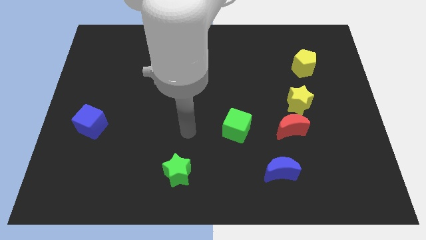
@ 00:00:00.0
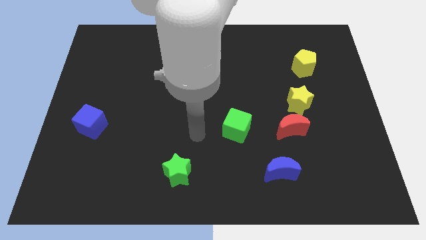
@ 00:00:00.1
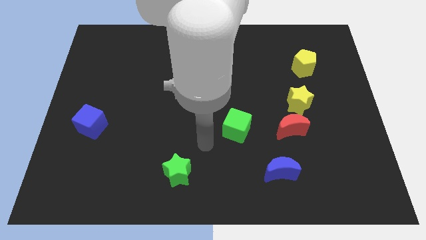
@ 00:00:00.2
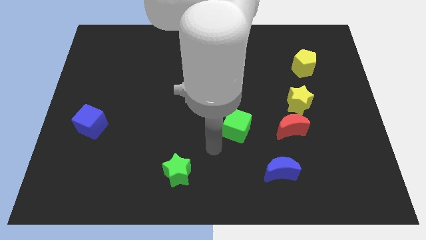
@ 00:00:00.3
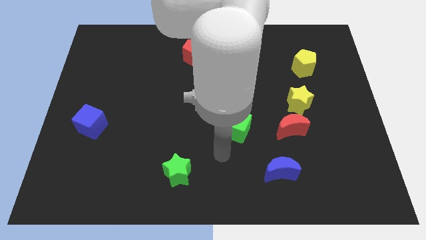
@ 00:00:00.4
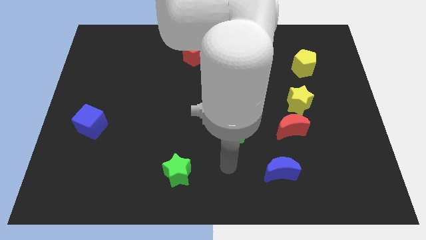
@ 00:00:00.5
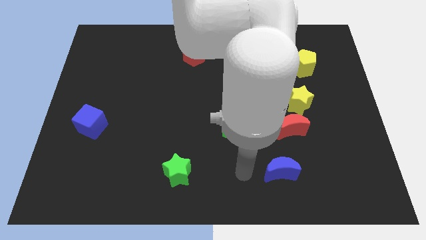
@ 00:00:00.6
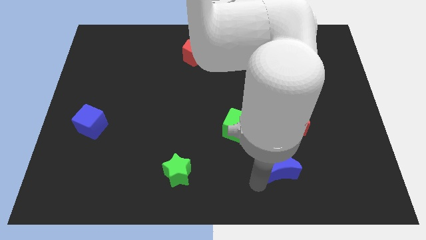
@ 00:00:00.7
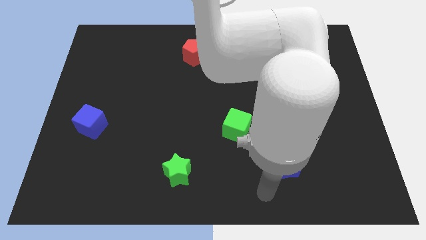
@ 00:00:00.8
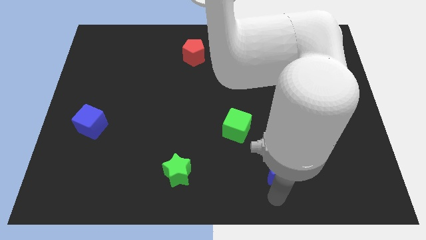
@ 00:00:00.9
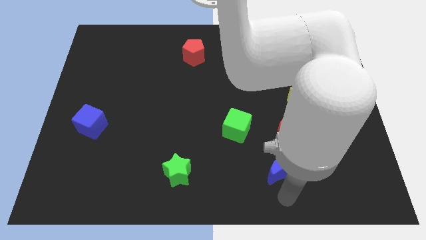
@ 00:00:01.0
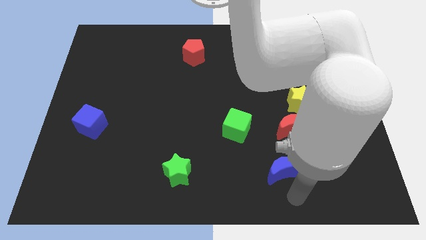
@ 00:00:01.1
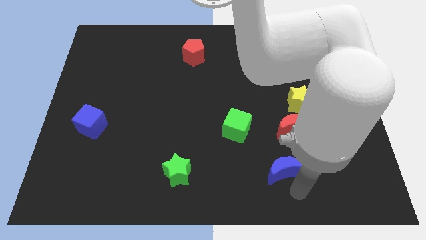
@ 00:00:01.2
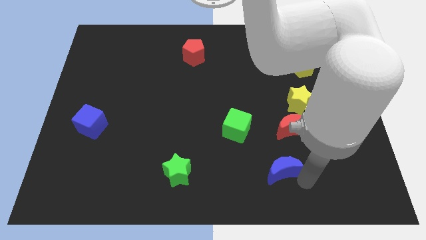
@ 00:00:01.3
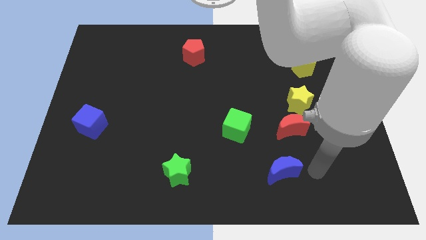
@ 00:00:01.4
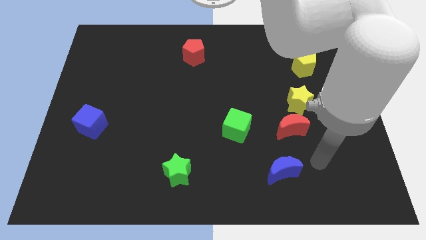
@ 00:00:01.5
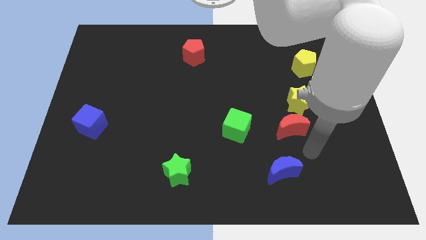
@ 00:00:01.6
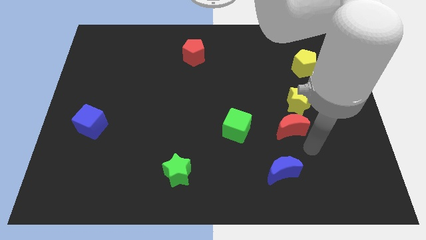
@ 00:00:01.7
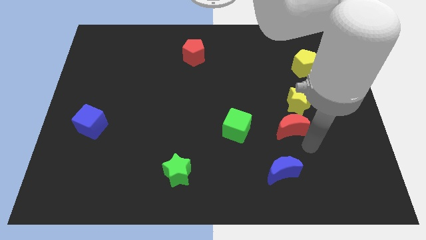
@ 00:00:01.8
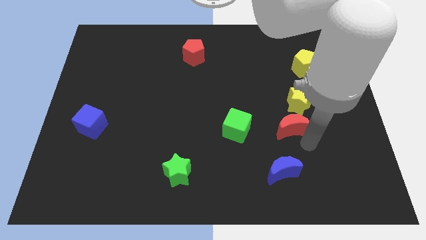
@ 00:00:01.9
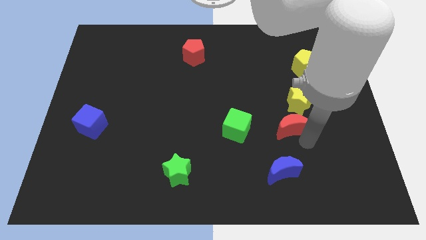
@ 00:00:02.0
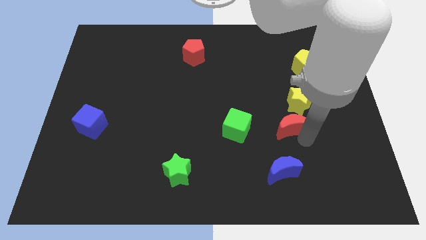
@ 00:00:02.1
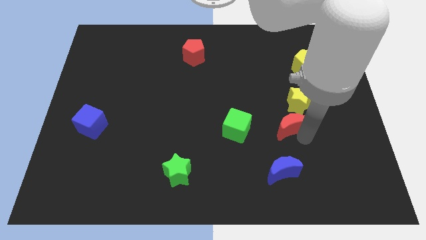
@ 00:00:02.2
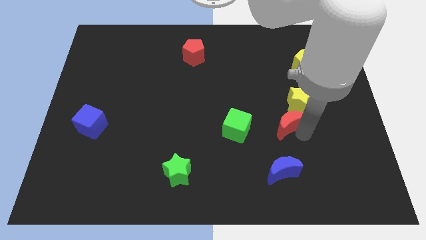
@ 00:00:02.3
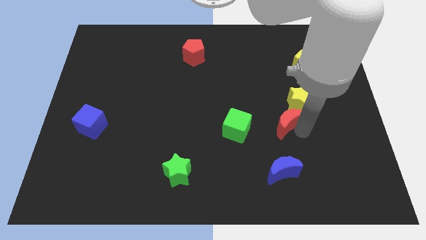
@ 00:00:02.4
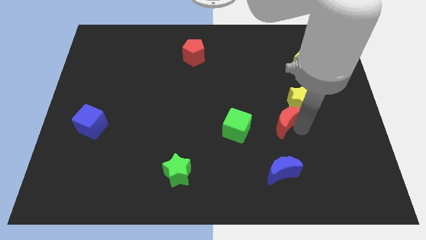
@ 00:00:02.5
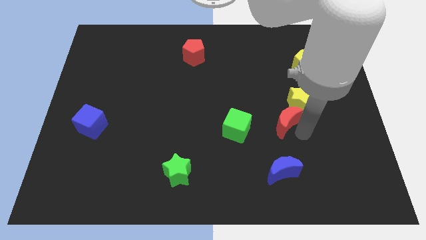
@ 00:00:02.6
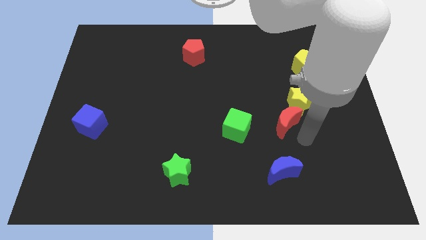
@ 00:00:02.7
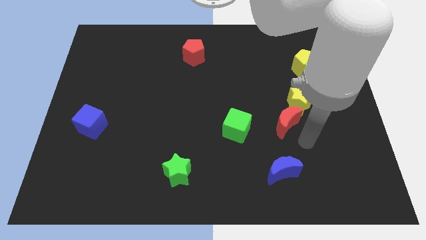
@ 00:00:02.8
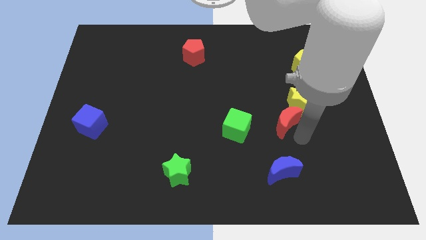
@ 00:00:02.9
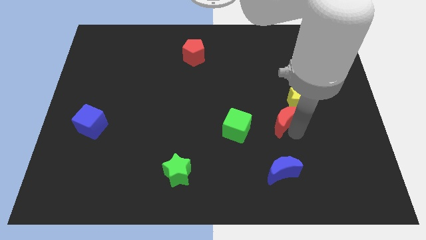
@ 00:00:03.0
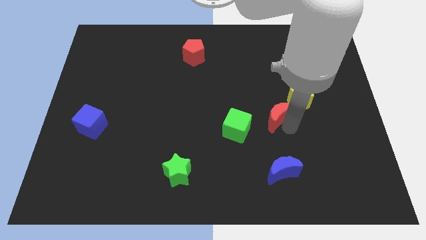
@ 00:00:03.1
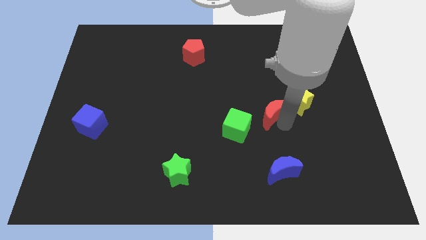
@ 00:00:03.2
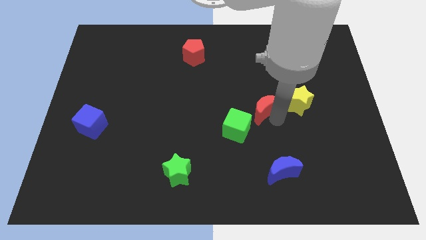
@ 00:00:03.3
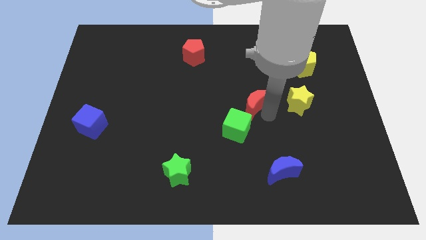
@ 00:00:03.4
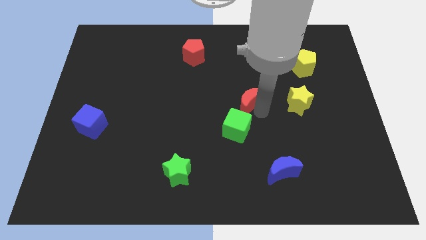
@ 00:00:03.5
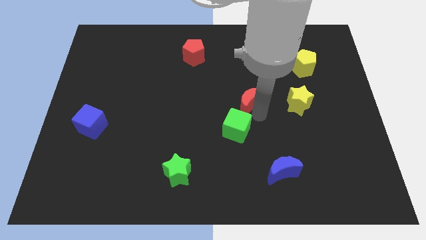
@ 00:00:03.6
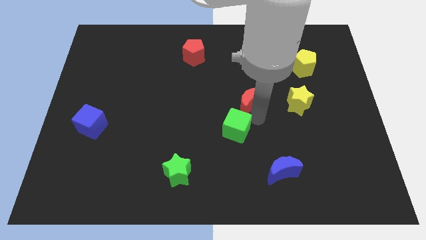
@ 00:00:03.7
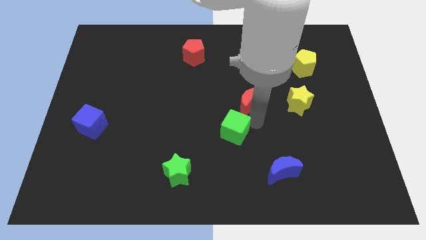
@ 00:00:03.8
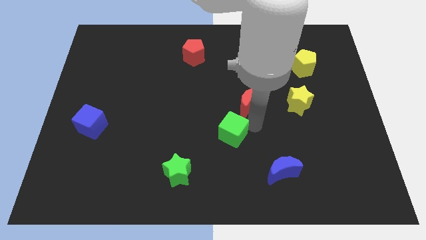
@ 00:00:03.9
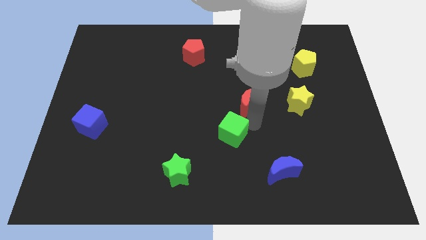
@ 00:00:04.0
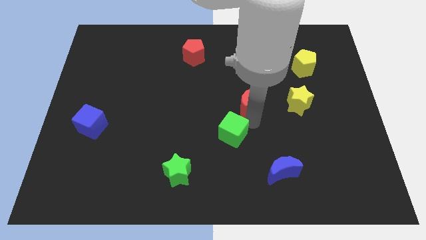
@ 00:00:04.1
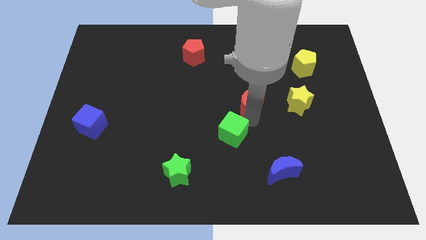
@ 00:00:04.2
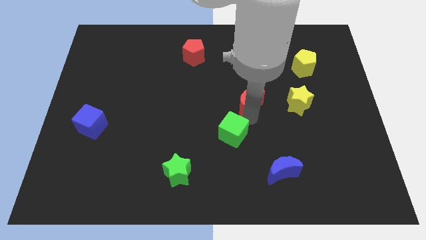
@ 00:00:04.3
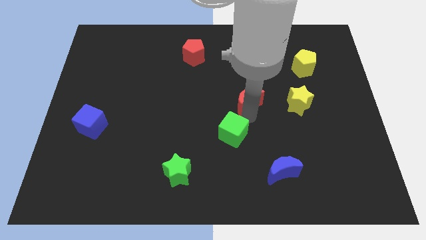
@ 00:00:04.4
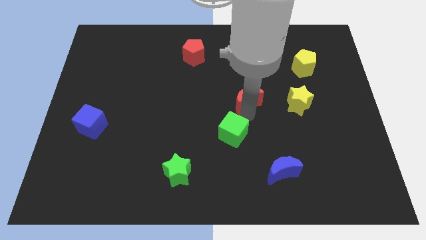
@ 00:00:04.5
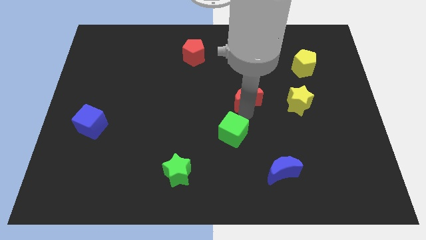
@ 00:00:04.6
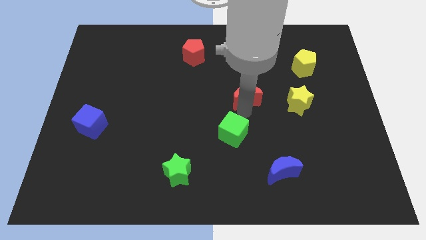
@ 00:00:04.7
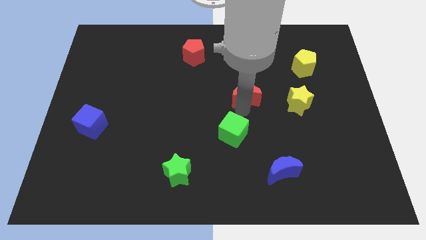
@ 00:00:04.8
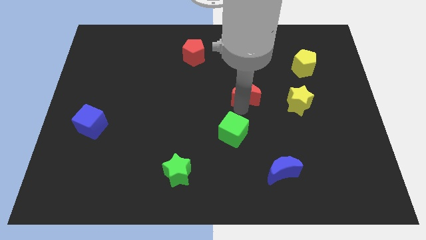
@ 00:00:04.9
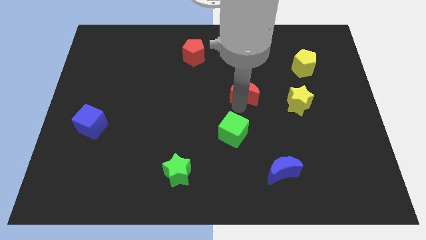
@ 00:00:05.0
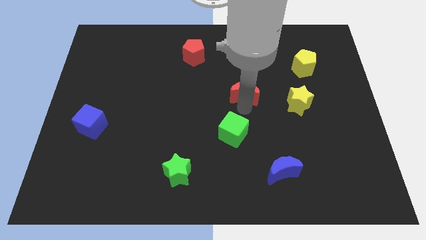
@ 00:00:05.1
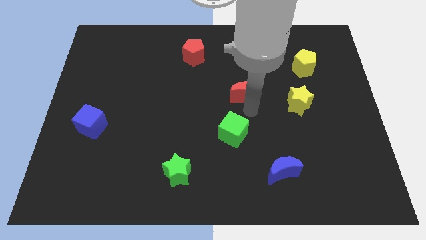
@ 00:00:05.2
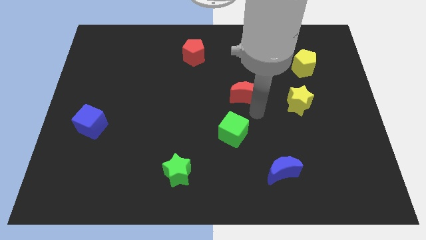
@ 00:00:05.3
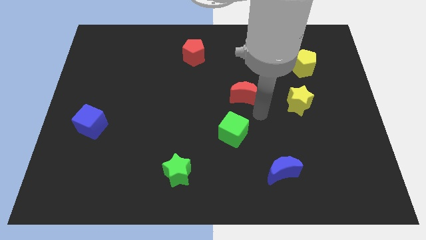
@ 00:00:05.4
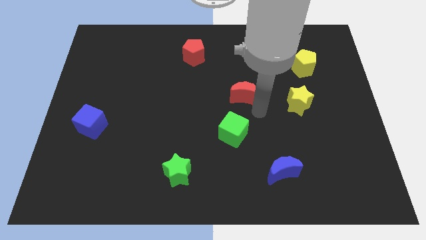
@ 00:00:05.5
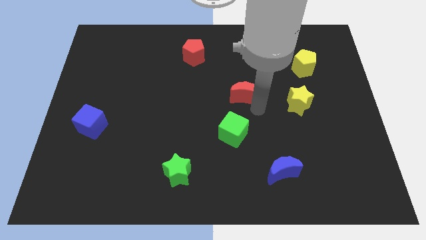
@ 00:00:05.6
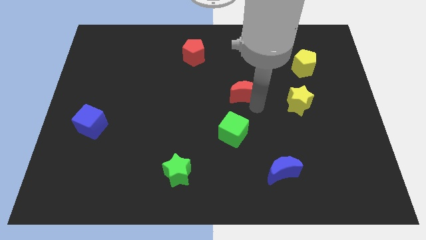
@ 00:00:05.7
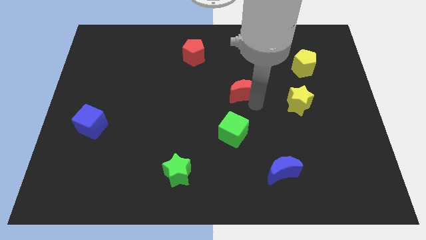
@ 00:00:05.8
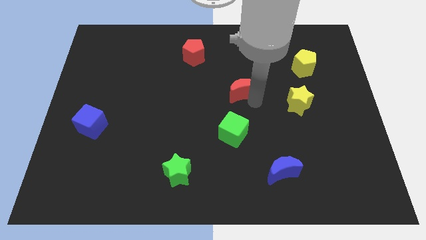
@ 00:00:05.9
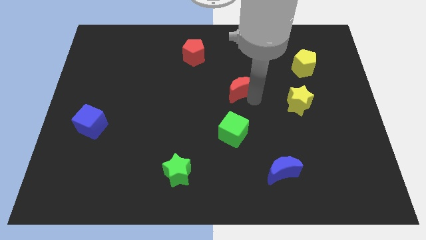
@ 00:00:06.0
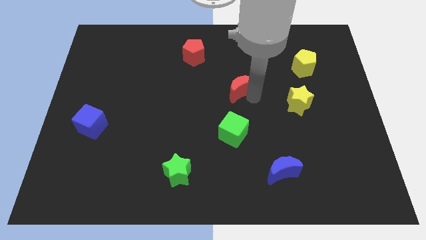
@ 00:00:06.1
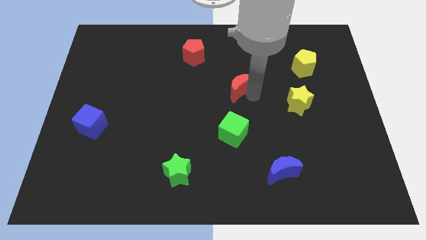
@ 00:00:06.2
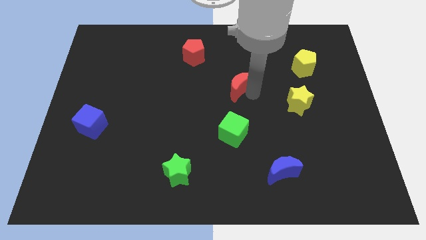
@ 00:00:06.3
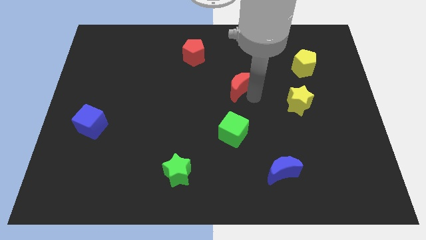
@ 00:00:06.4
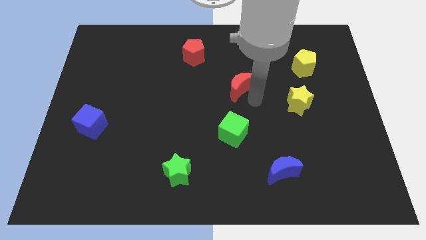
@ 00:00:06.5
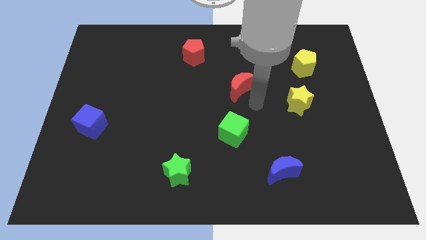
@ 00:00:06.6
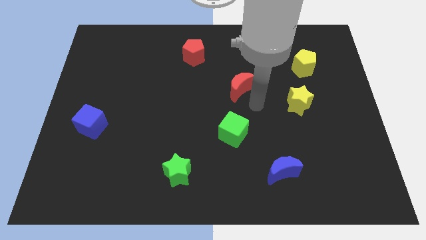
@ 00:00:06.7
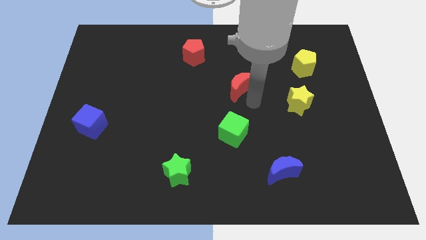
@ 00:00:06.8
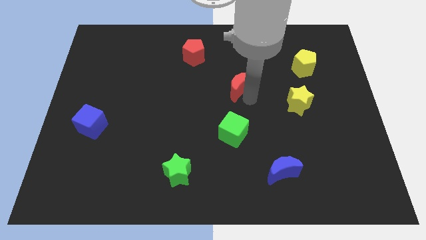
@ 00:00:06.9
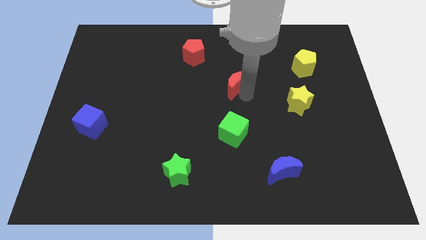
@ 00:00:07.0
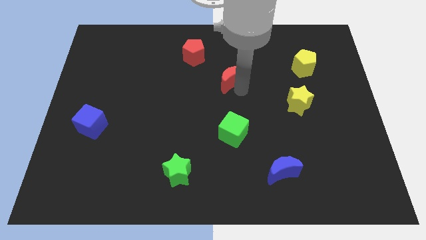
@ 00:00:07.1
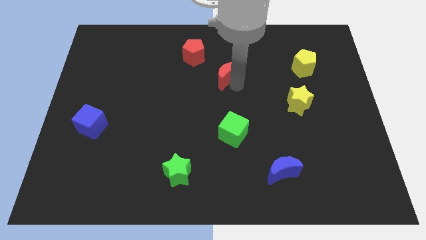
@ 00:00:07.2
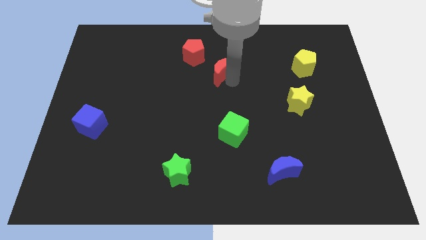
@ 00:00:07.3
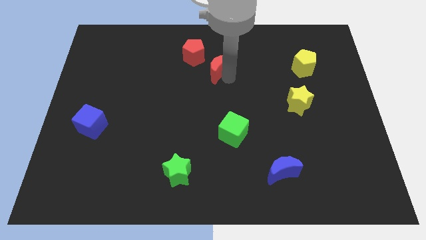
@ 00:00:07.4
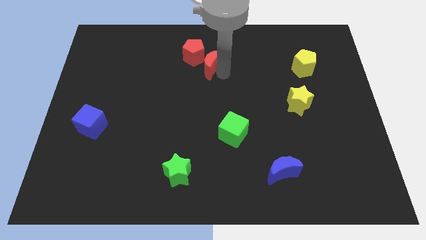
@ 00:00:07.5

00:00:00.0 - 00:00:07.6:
slide the red moon next to the red pentagon

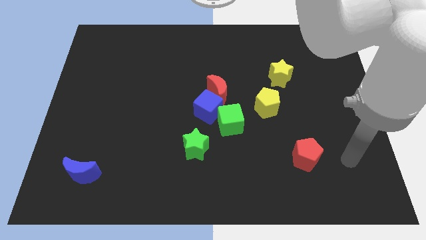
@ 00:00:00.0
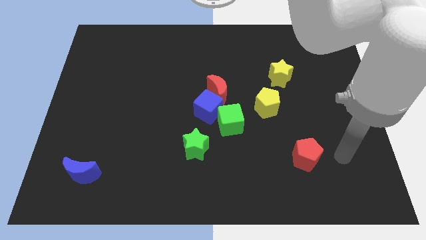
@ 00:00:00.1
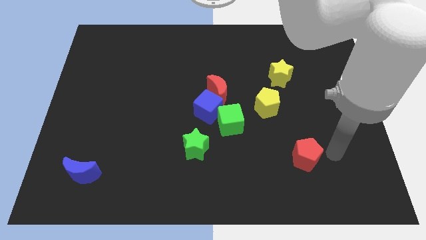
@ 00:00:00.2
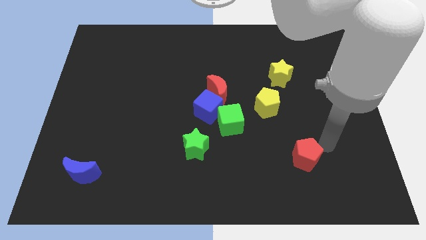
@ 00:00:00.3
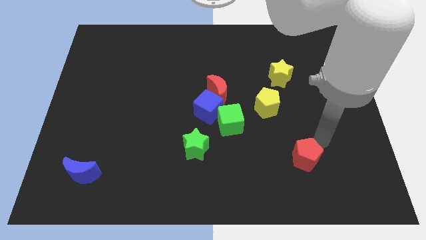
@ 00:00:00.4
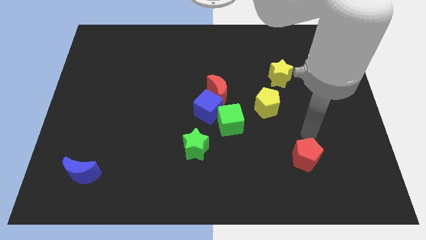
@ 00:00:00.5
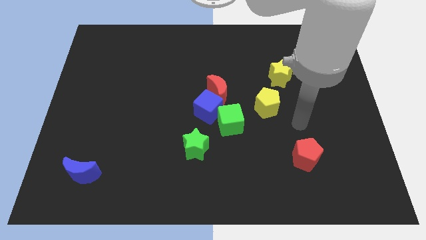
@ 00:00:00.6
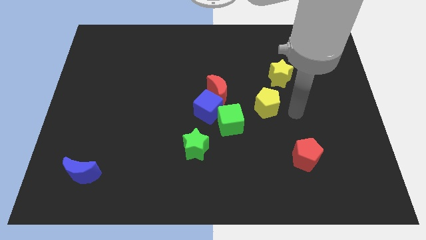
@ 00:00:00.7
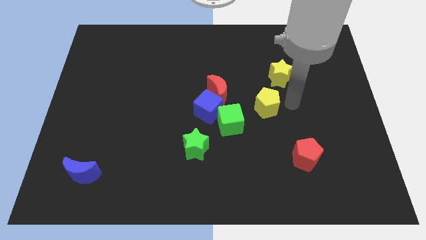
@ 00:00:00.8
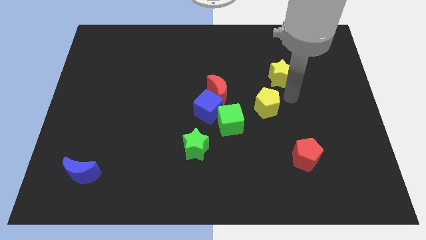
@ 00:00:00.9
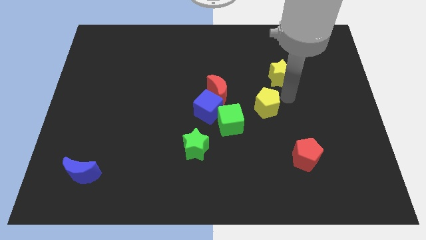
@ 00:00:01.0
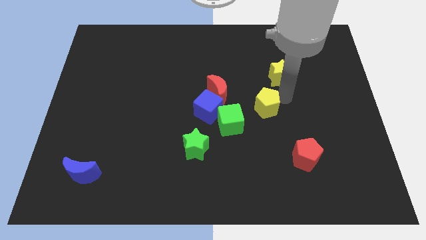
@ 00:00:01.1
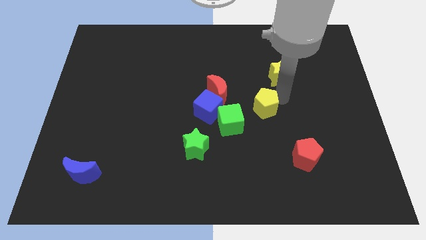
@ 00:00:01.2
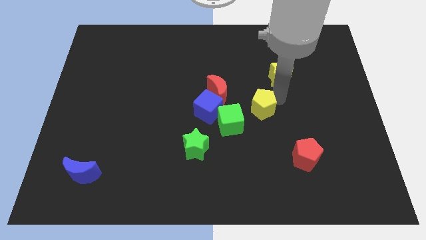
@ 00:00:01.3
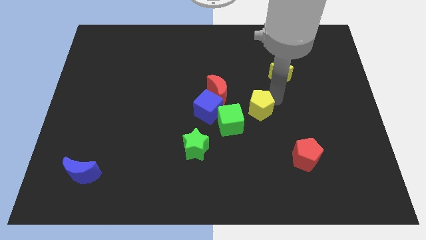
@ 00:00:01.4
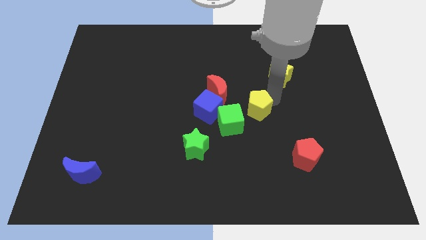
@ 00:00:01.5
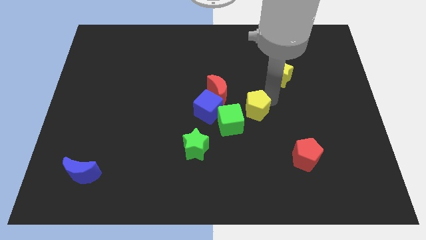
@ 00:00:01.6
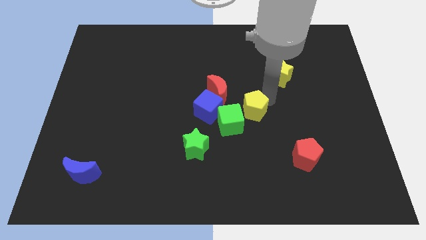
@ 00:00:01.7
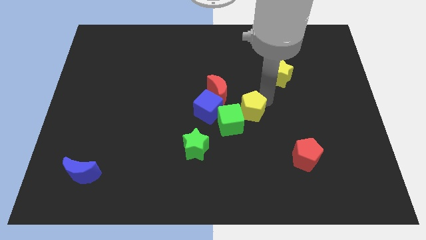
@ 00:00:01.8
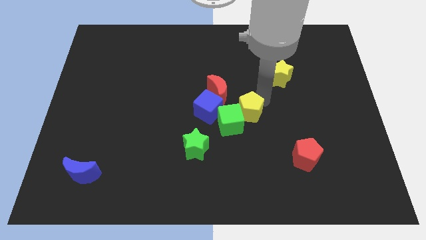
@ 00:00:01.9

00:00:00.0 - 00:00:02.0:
slide the yellow pentagon close to the green cube
